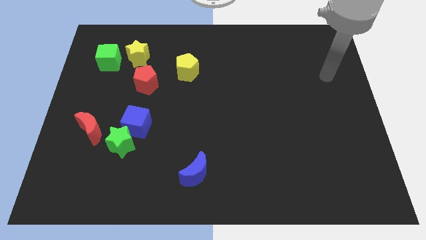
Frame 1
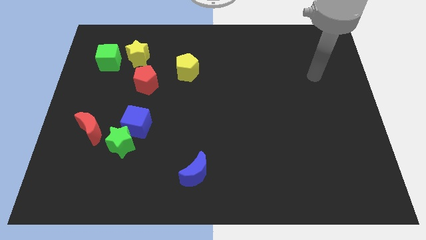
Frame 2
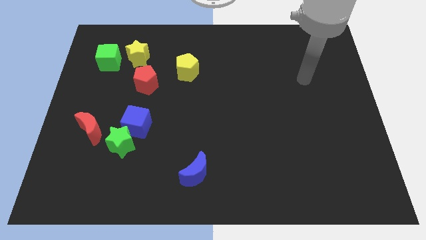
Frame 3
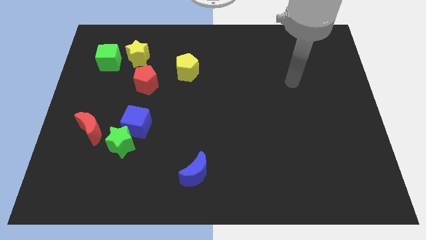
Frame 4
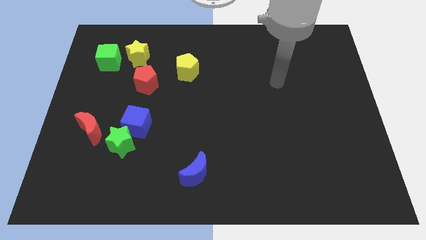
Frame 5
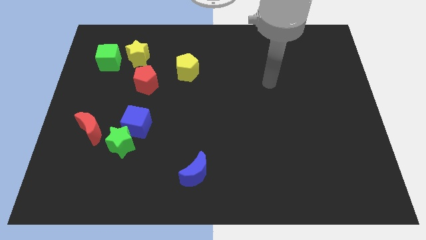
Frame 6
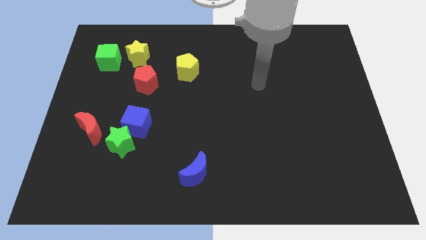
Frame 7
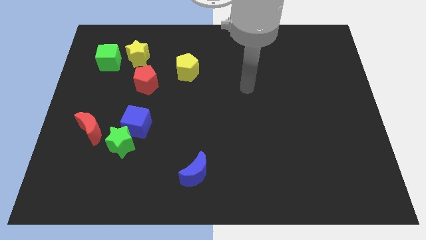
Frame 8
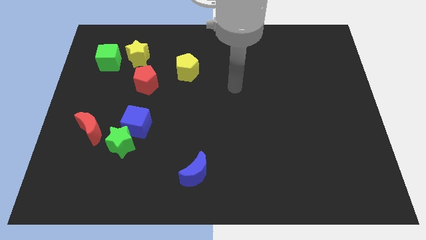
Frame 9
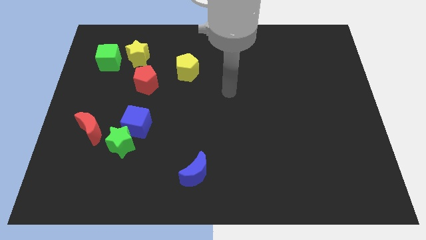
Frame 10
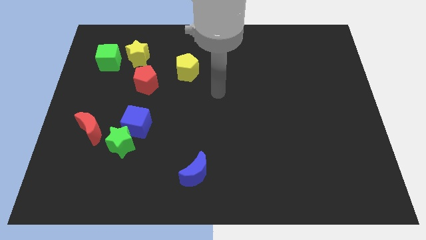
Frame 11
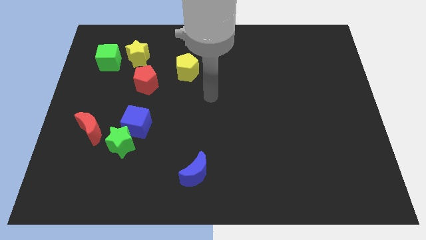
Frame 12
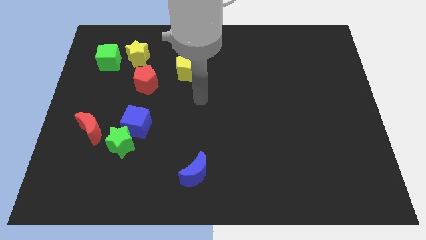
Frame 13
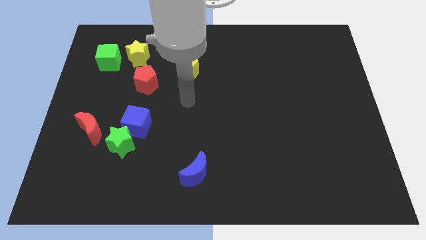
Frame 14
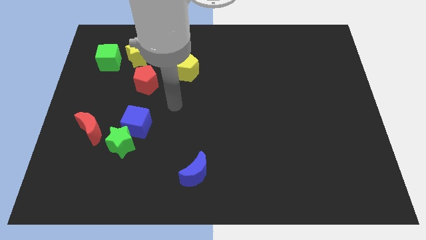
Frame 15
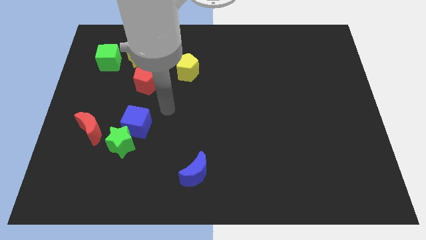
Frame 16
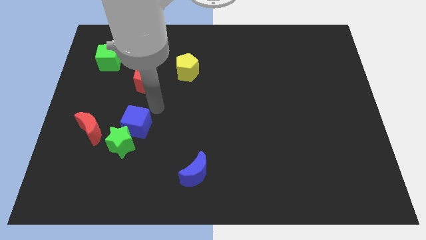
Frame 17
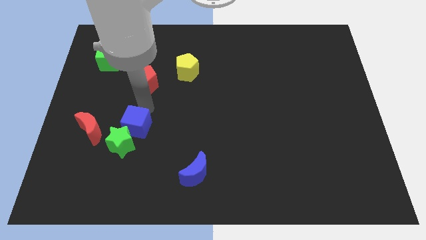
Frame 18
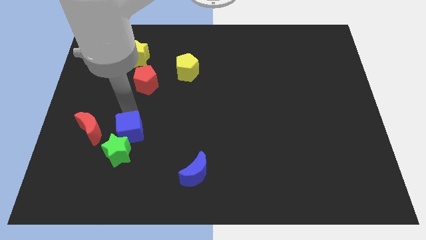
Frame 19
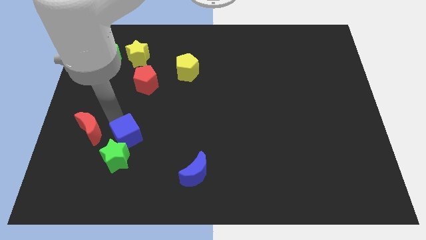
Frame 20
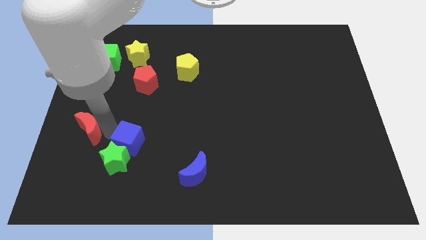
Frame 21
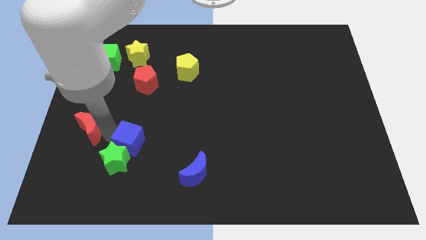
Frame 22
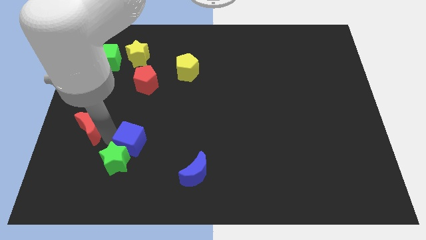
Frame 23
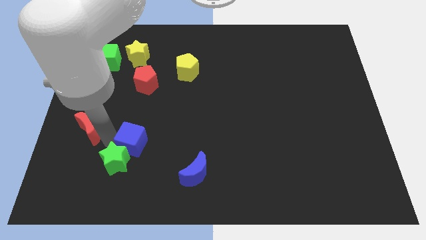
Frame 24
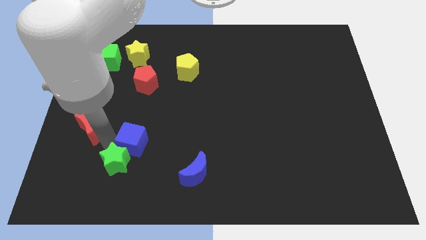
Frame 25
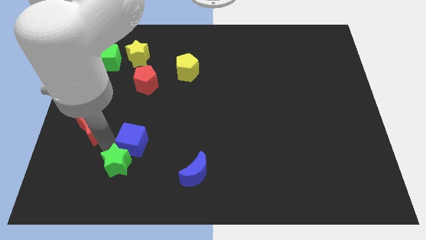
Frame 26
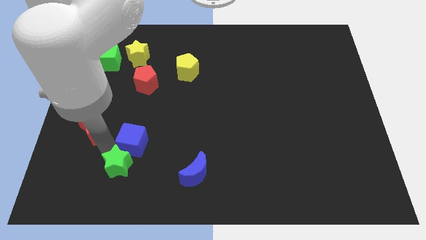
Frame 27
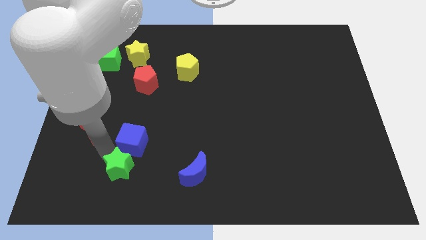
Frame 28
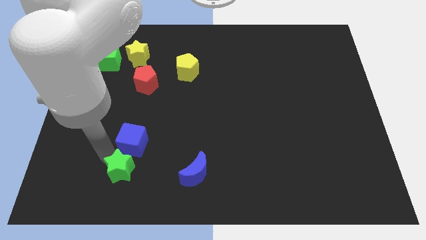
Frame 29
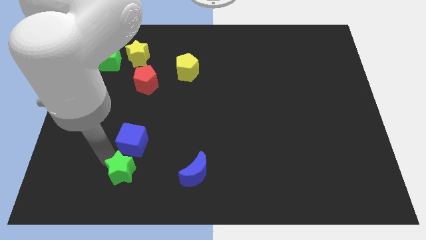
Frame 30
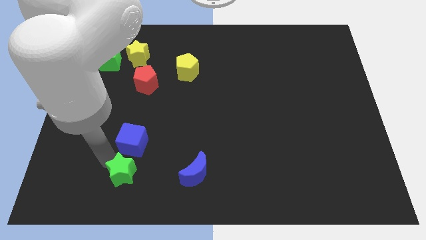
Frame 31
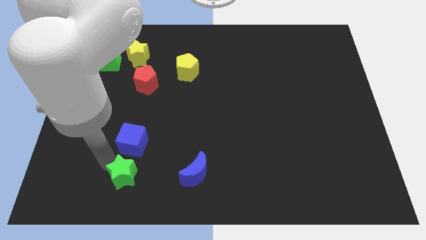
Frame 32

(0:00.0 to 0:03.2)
pull the green star apart from the blue cube and red moon

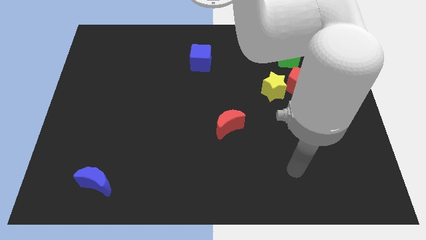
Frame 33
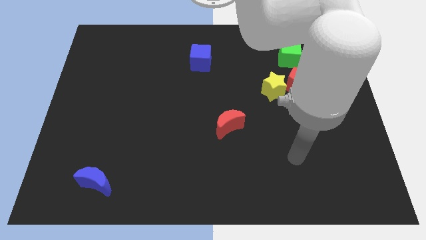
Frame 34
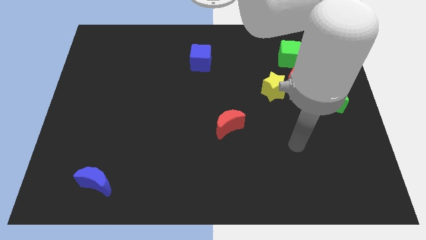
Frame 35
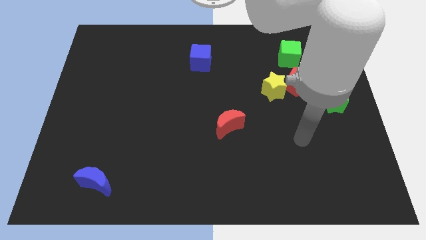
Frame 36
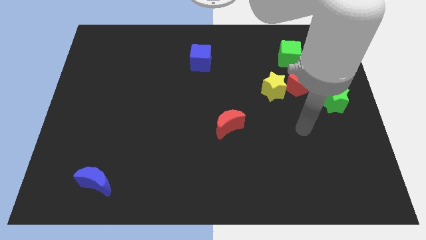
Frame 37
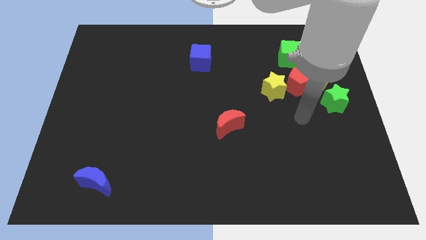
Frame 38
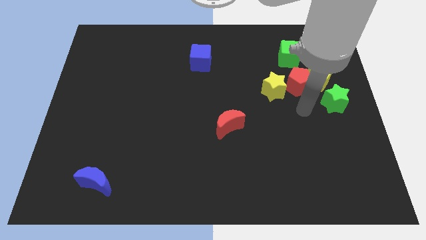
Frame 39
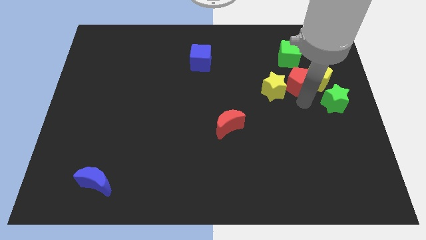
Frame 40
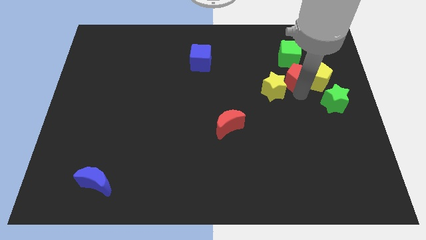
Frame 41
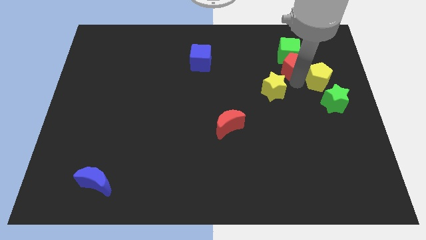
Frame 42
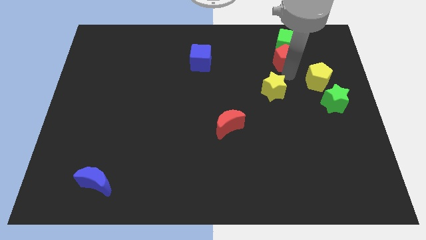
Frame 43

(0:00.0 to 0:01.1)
separate the yellow star from the red pentagon

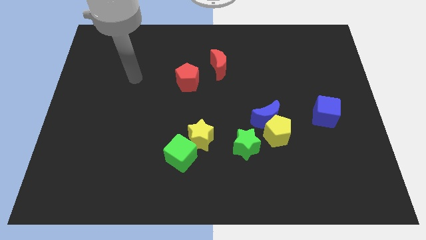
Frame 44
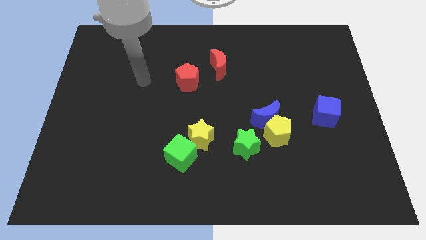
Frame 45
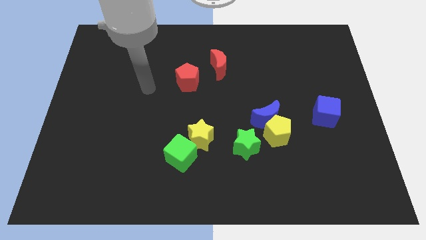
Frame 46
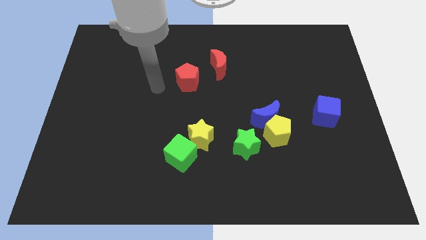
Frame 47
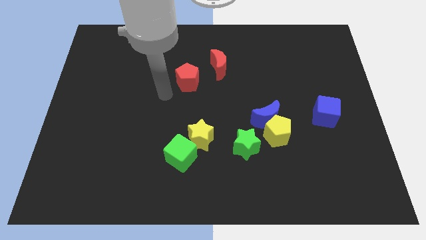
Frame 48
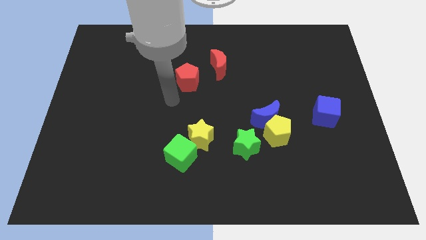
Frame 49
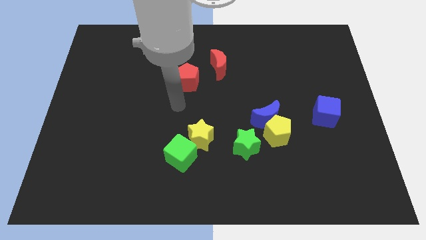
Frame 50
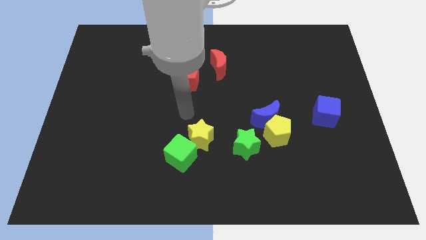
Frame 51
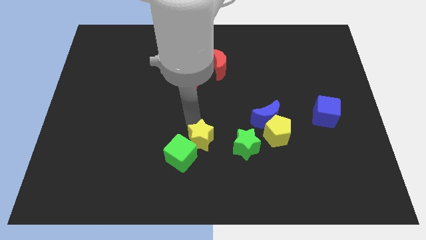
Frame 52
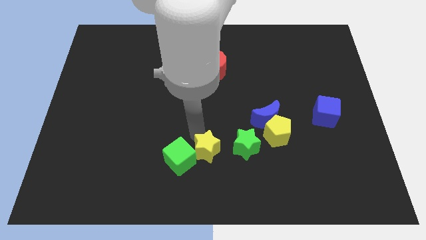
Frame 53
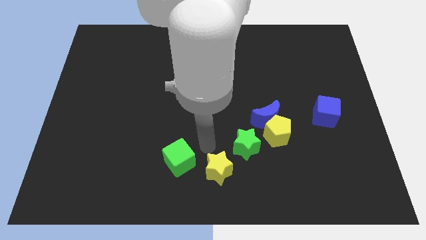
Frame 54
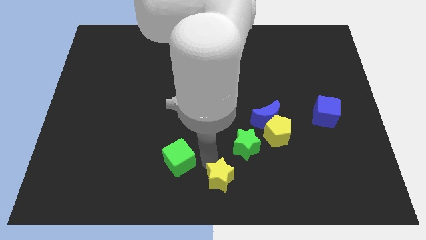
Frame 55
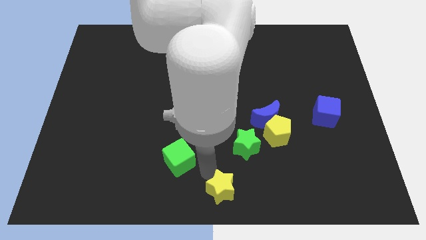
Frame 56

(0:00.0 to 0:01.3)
separate the green cube from the yellow star

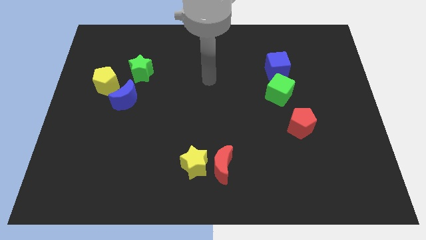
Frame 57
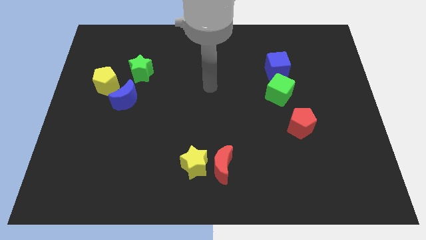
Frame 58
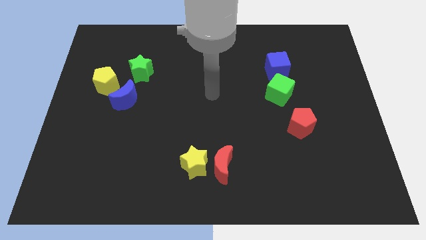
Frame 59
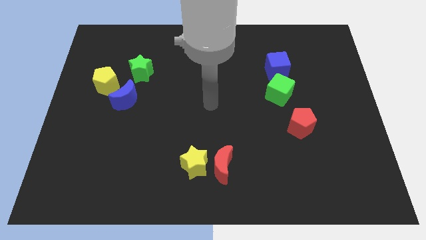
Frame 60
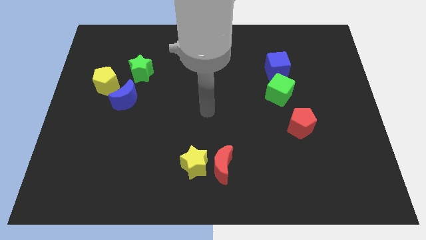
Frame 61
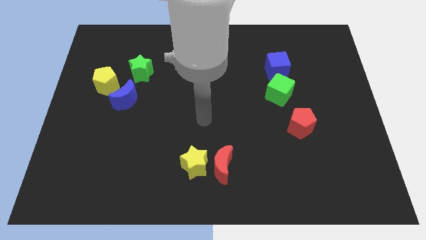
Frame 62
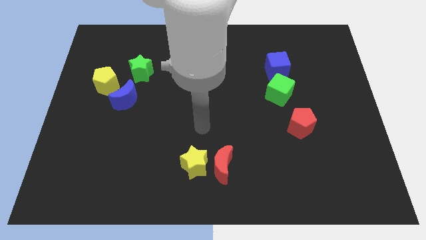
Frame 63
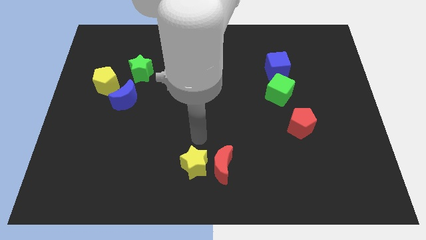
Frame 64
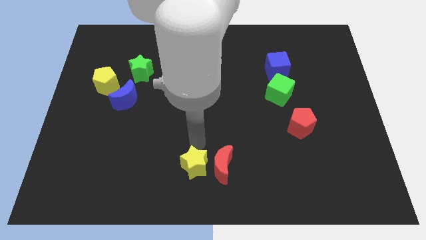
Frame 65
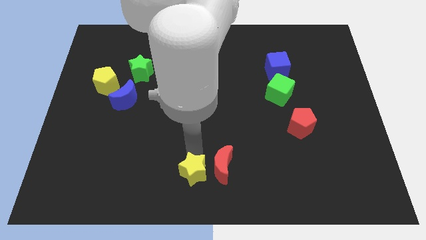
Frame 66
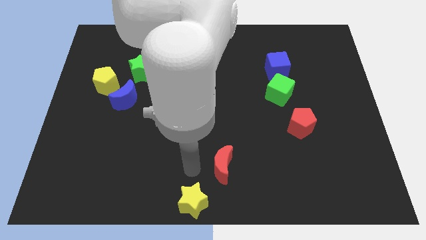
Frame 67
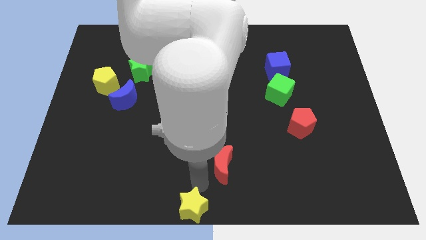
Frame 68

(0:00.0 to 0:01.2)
separate the red moon from the yellow star

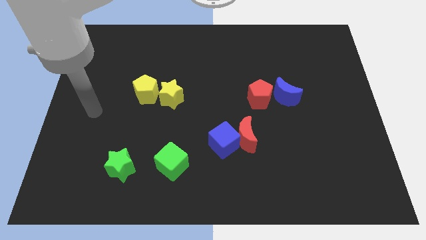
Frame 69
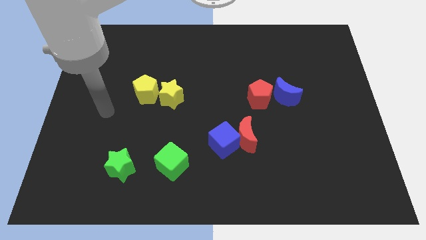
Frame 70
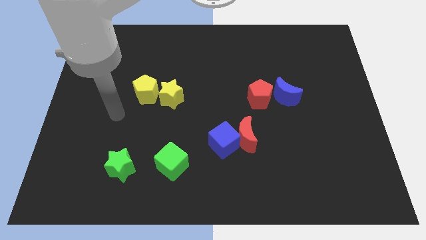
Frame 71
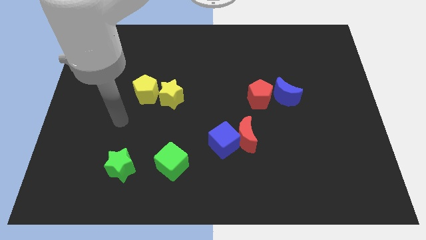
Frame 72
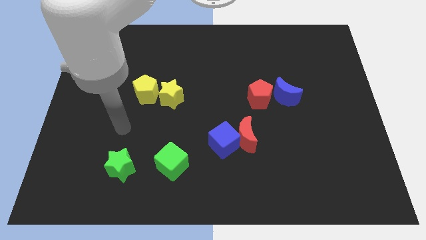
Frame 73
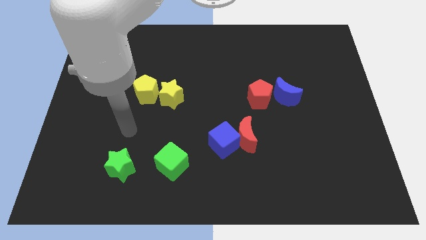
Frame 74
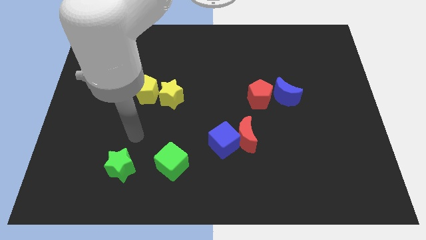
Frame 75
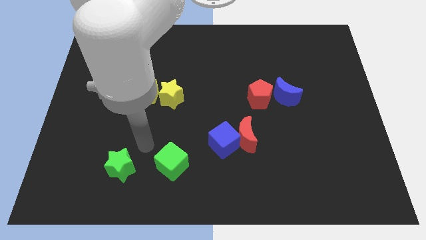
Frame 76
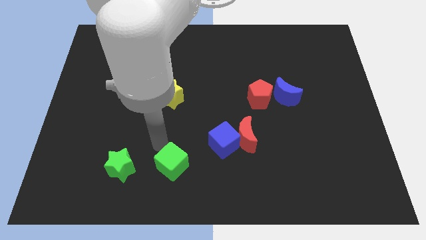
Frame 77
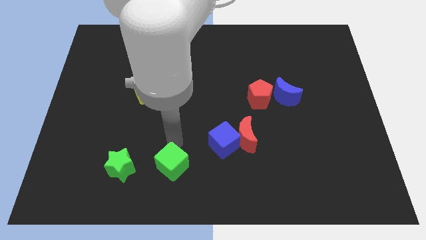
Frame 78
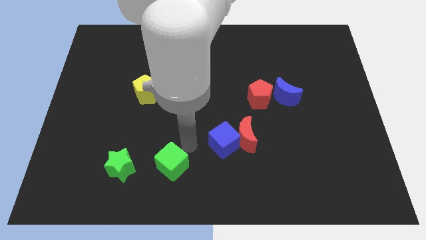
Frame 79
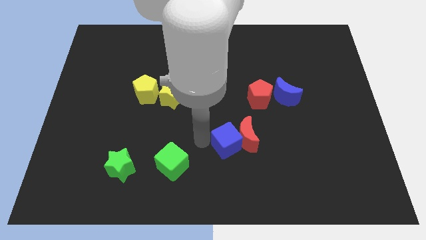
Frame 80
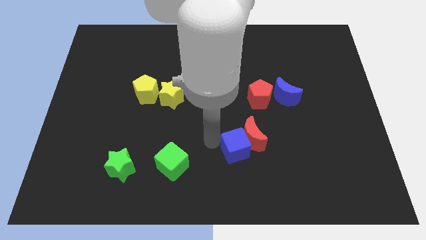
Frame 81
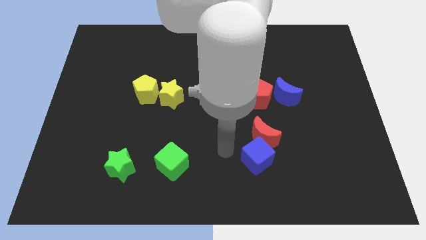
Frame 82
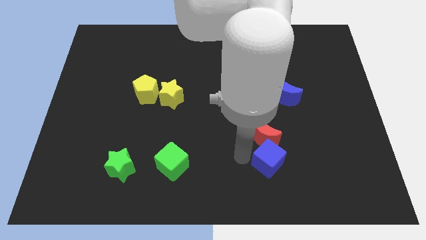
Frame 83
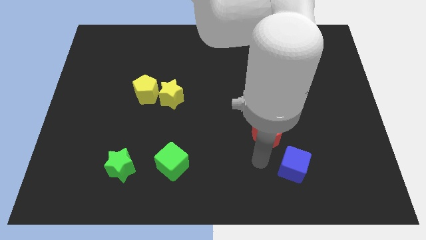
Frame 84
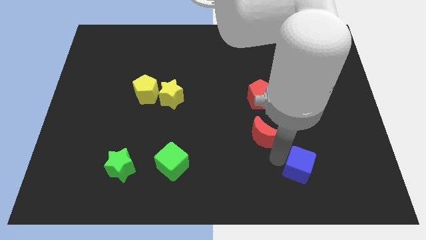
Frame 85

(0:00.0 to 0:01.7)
separate the red moon from the blue cube

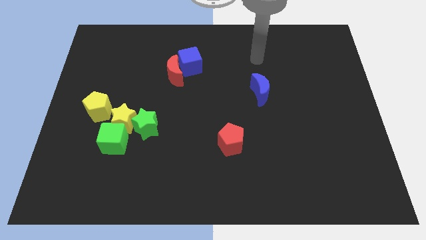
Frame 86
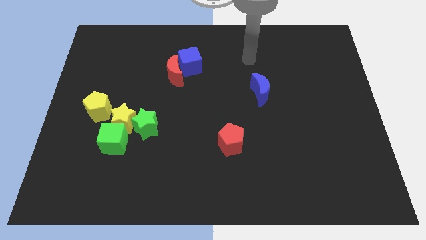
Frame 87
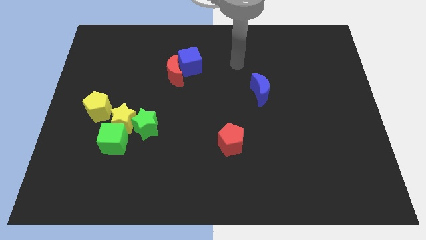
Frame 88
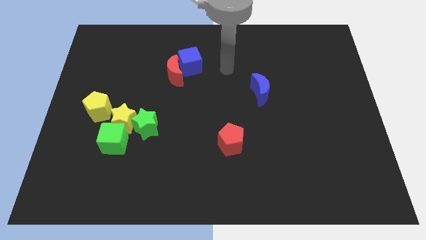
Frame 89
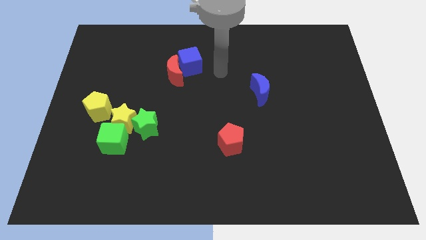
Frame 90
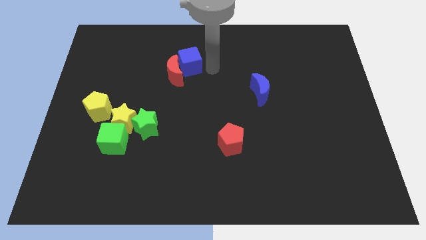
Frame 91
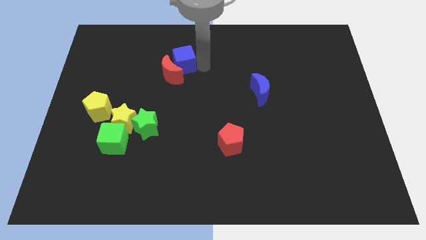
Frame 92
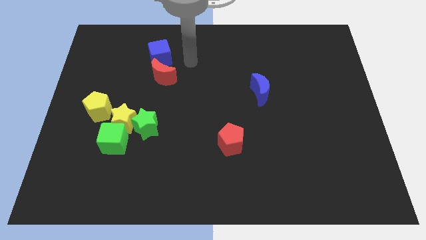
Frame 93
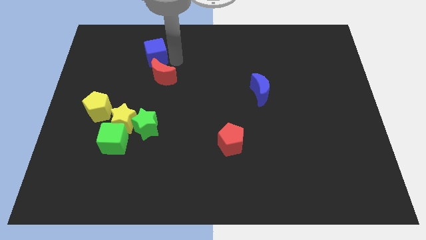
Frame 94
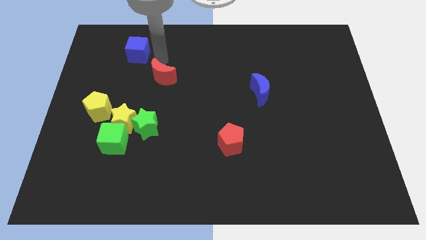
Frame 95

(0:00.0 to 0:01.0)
pull the red moon apart from the blue cube
